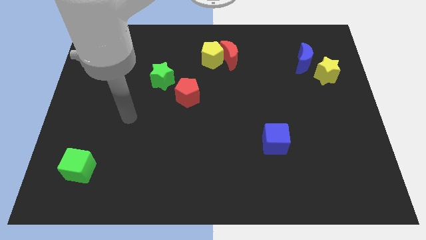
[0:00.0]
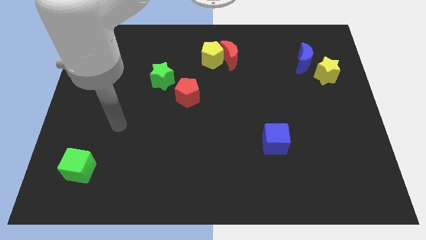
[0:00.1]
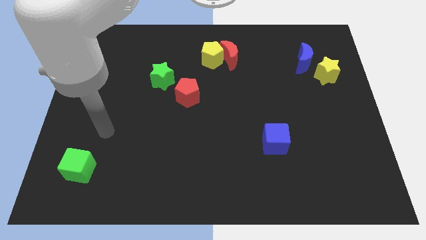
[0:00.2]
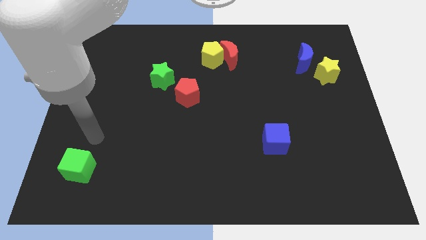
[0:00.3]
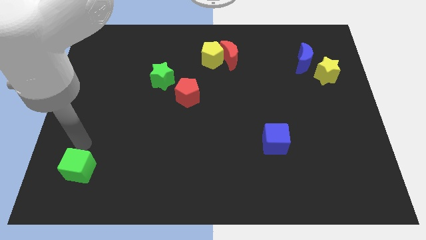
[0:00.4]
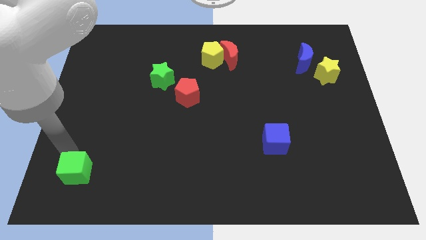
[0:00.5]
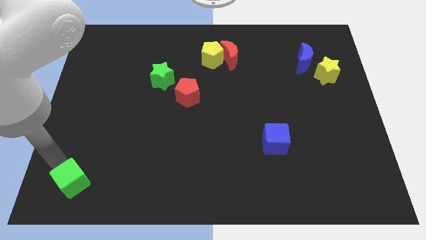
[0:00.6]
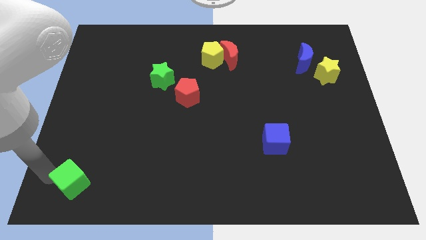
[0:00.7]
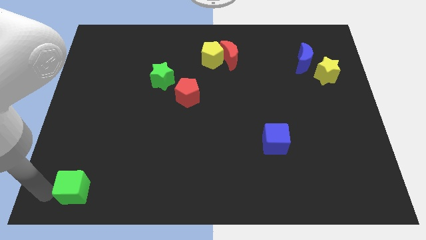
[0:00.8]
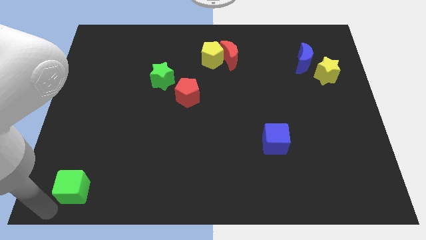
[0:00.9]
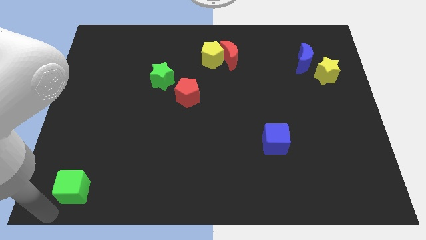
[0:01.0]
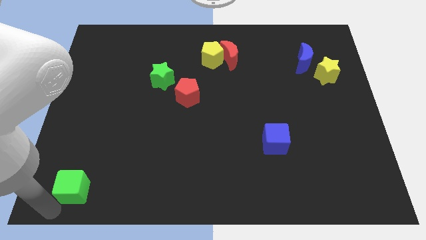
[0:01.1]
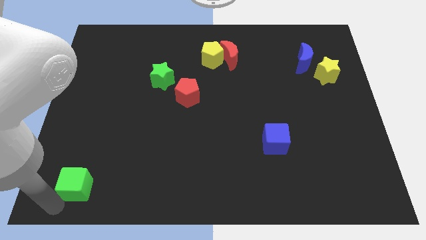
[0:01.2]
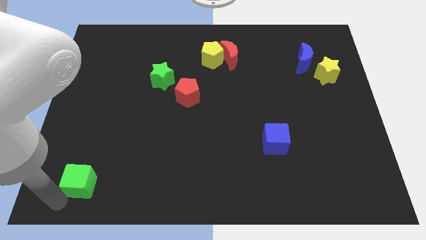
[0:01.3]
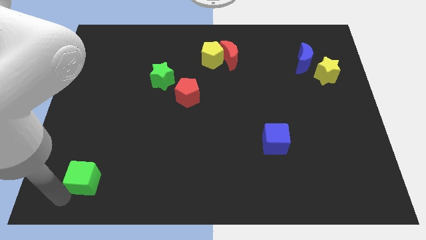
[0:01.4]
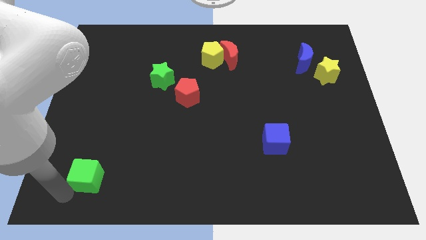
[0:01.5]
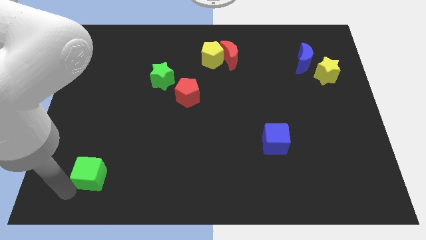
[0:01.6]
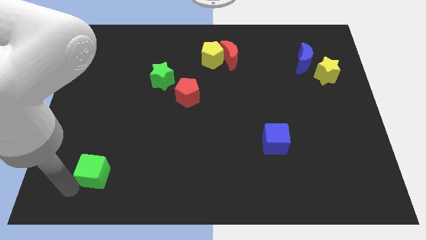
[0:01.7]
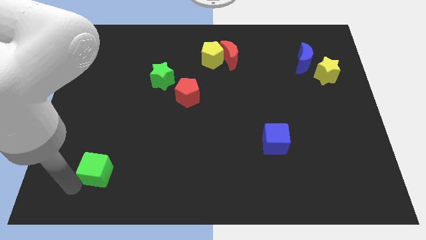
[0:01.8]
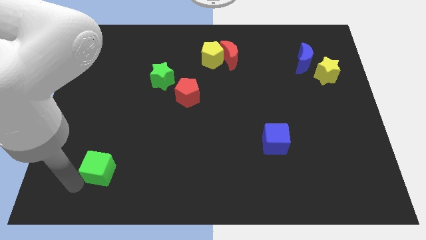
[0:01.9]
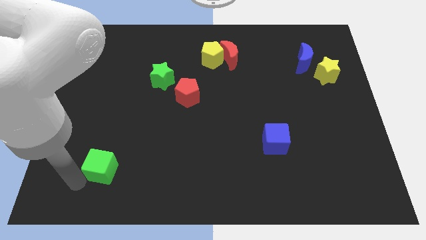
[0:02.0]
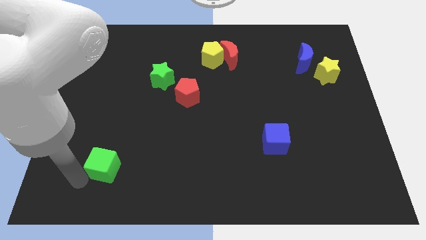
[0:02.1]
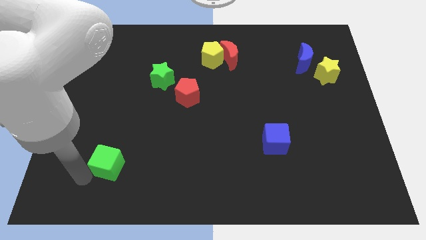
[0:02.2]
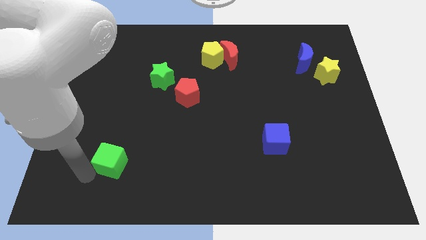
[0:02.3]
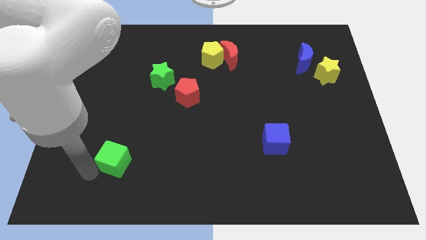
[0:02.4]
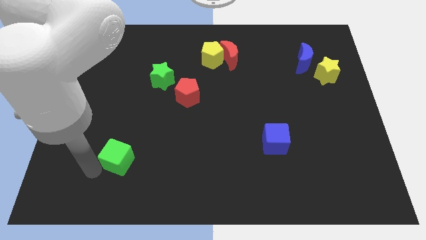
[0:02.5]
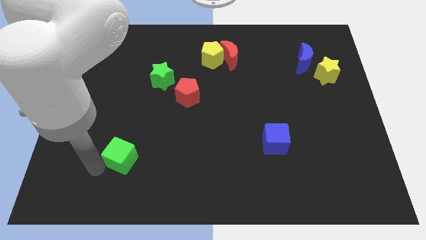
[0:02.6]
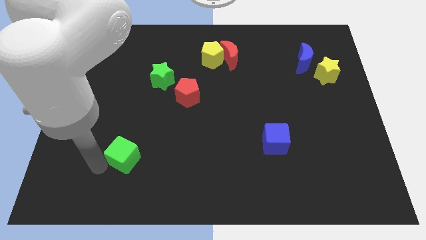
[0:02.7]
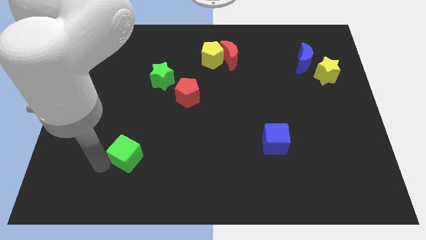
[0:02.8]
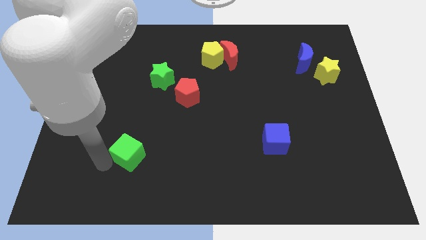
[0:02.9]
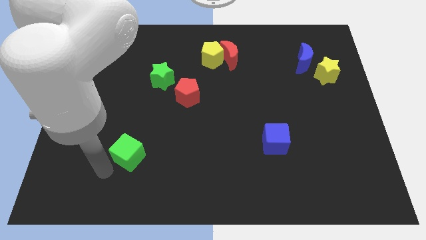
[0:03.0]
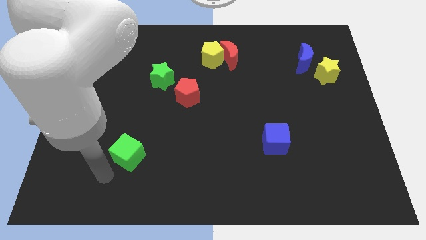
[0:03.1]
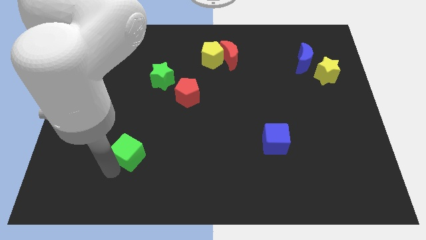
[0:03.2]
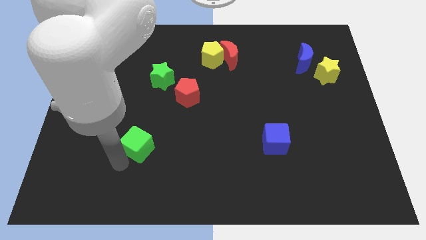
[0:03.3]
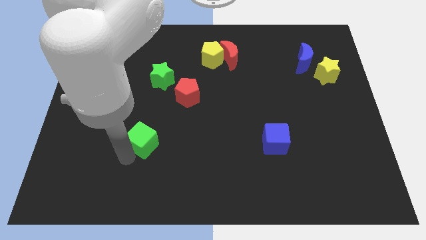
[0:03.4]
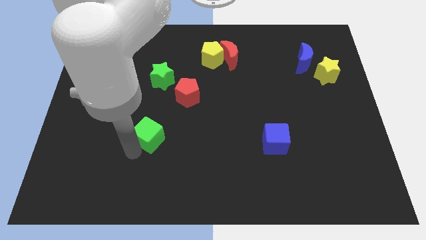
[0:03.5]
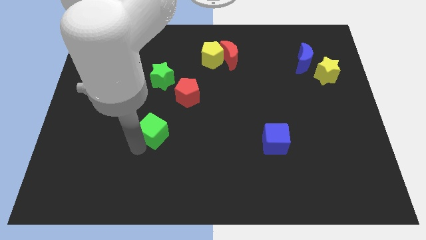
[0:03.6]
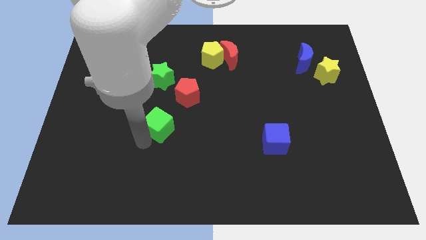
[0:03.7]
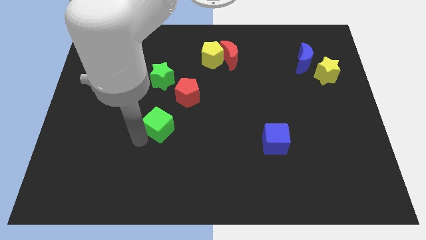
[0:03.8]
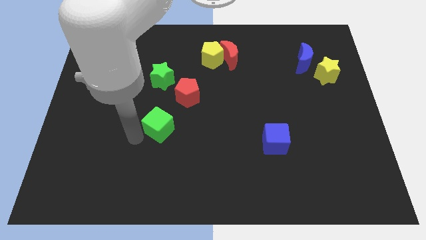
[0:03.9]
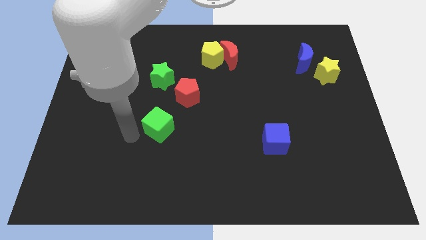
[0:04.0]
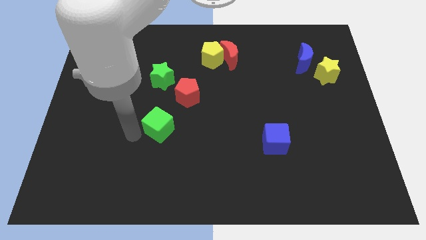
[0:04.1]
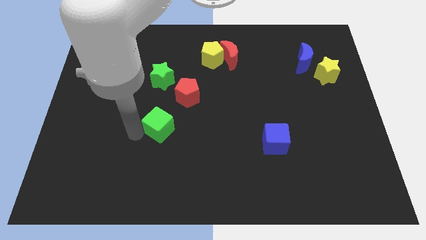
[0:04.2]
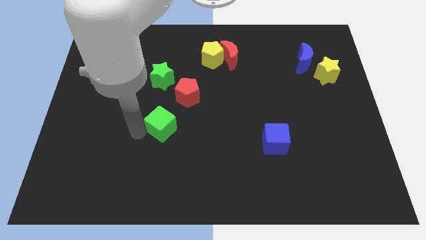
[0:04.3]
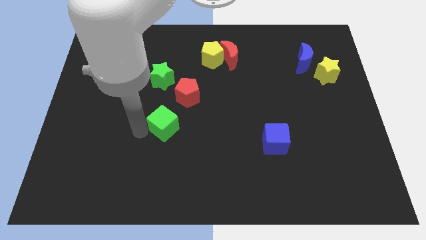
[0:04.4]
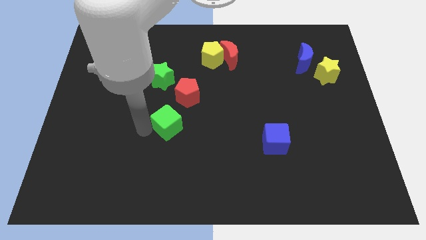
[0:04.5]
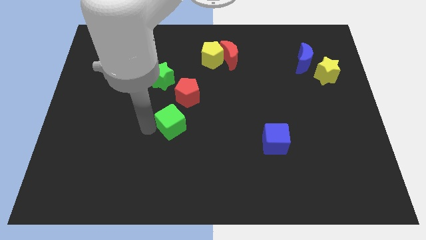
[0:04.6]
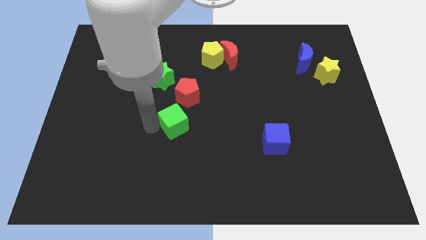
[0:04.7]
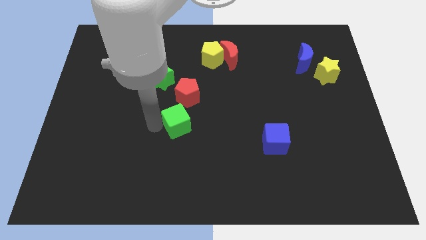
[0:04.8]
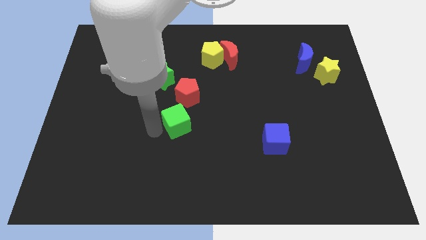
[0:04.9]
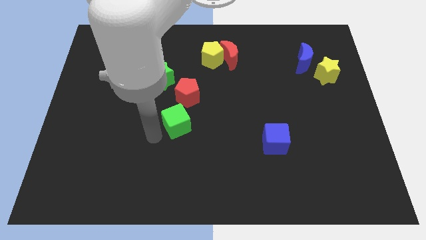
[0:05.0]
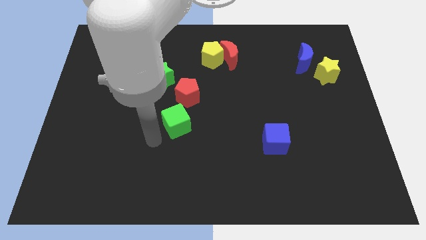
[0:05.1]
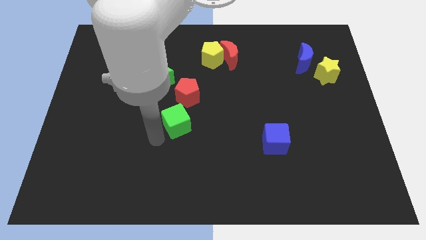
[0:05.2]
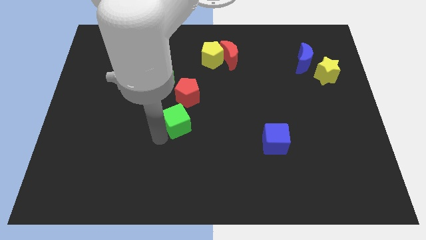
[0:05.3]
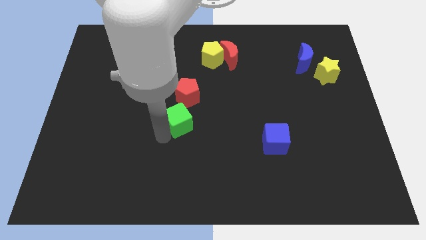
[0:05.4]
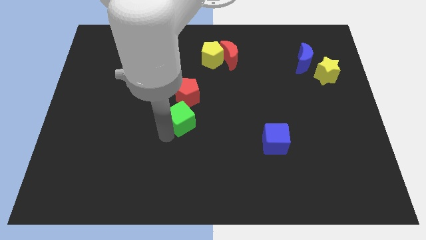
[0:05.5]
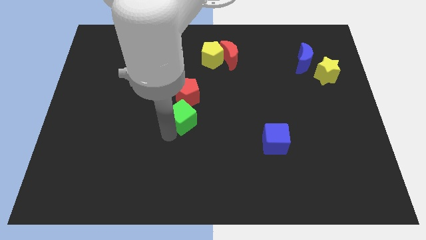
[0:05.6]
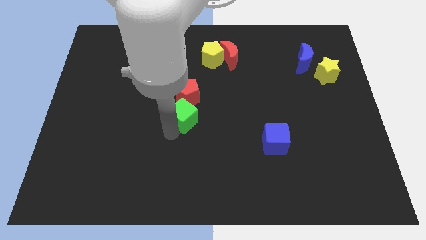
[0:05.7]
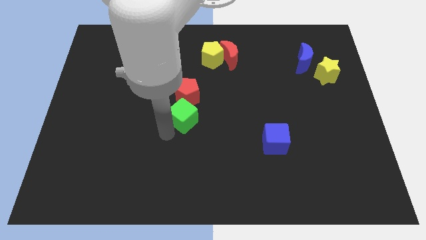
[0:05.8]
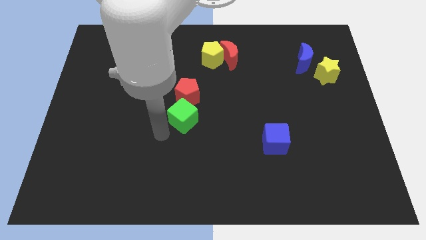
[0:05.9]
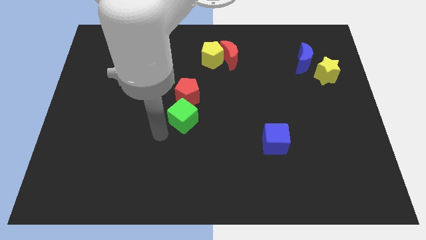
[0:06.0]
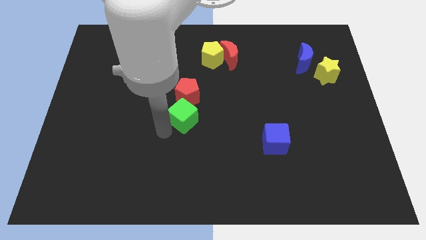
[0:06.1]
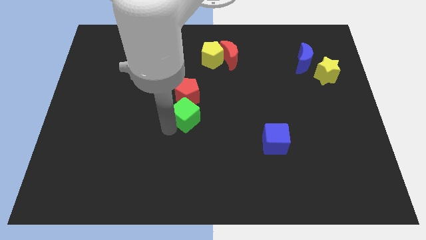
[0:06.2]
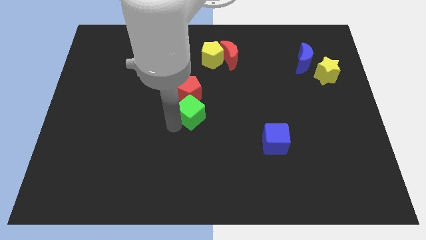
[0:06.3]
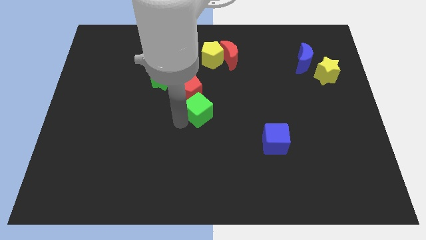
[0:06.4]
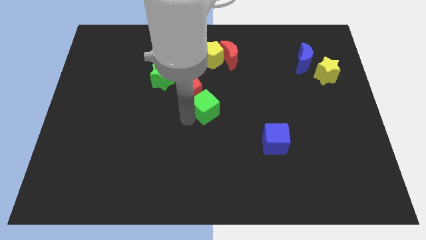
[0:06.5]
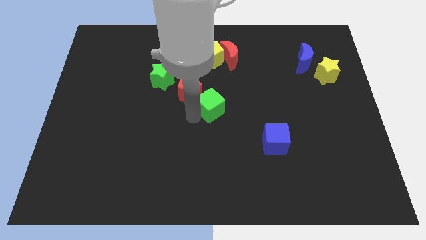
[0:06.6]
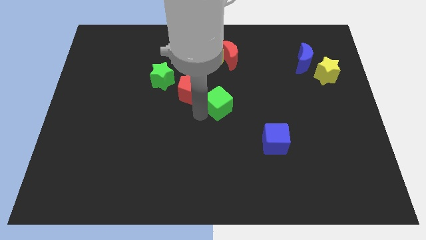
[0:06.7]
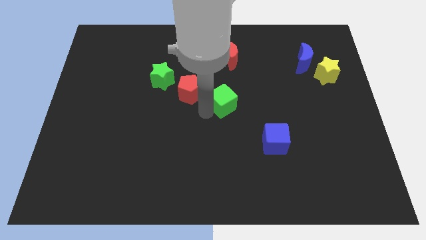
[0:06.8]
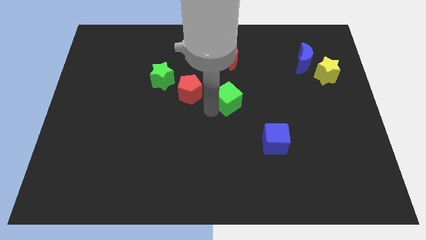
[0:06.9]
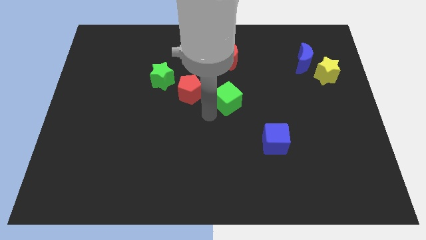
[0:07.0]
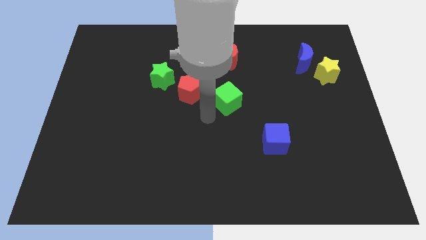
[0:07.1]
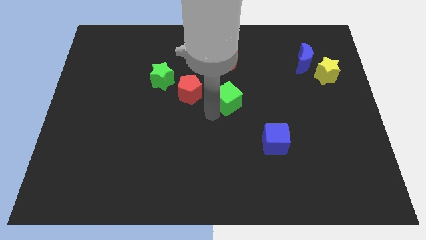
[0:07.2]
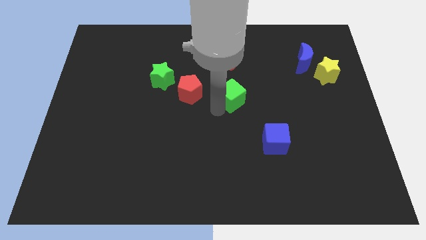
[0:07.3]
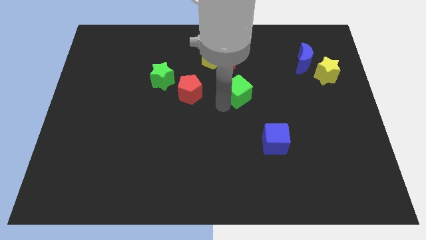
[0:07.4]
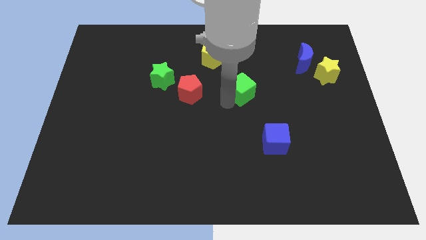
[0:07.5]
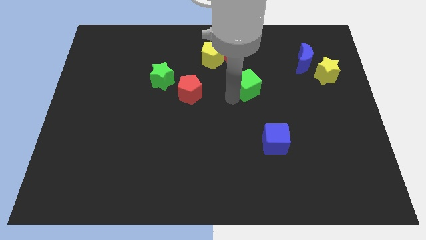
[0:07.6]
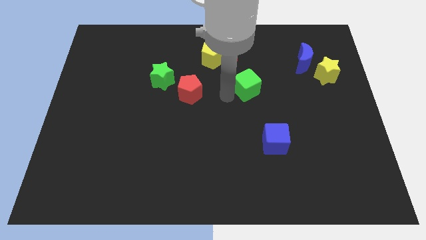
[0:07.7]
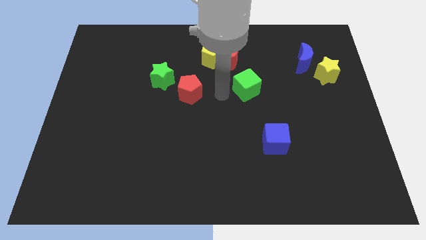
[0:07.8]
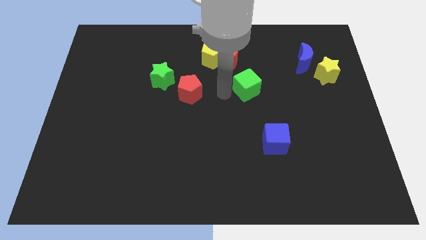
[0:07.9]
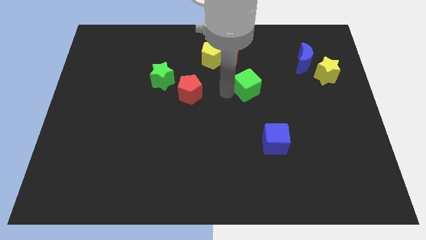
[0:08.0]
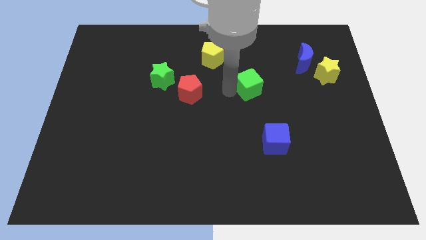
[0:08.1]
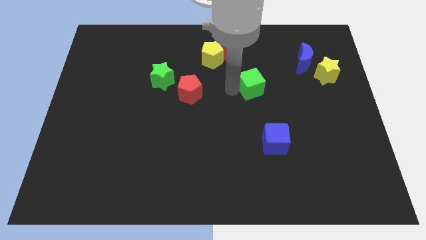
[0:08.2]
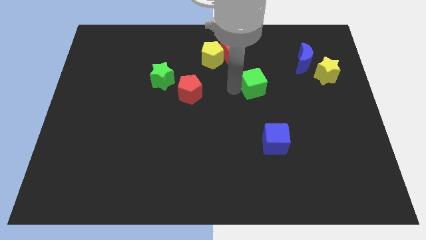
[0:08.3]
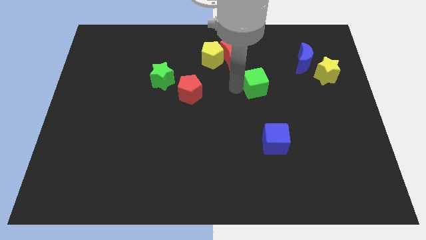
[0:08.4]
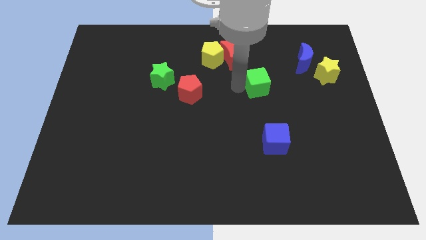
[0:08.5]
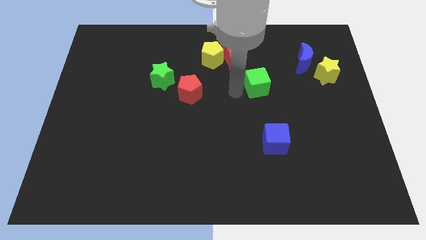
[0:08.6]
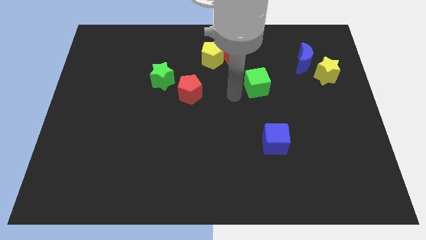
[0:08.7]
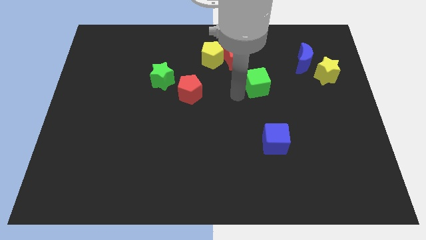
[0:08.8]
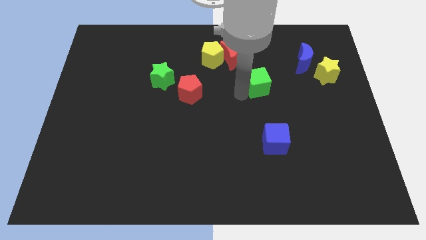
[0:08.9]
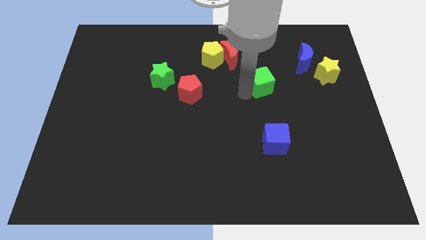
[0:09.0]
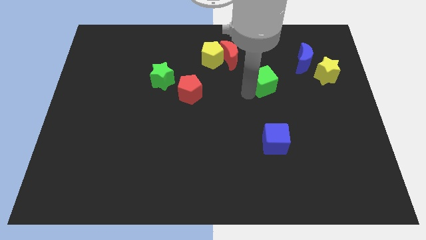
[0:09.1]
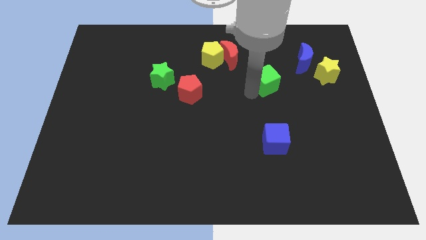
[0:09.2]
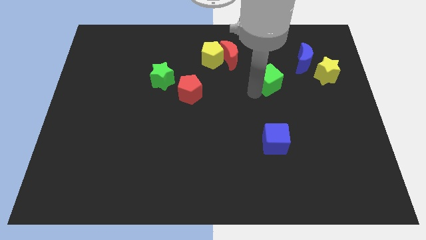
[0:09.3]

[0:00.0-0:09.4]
slide the green cube just left of the yellow star
